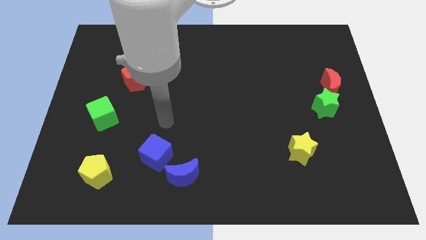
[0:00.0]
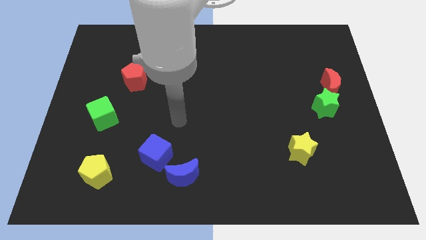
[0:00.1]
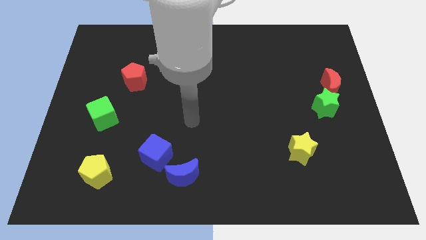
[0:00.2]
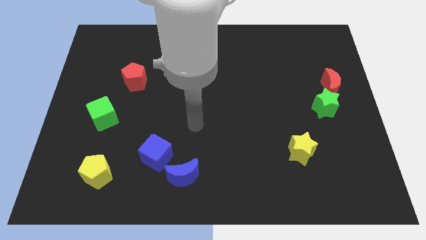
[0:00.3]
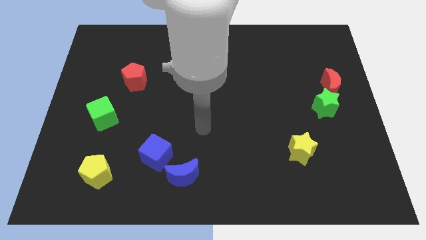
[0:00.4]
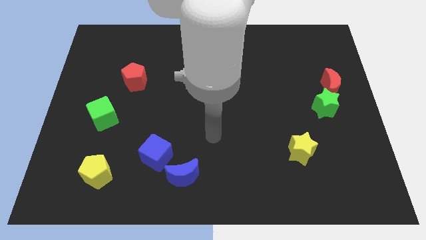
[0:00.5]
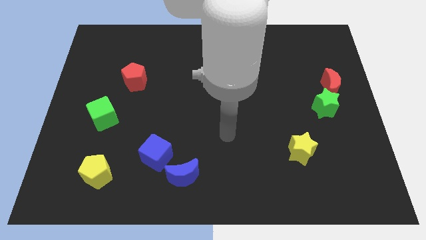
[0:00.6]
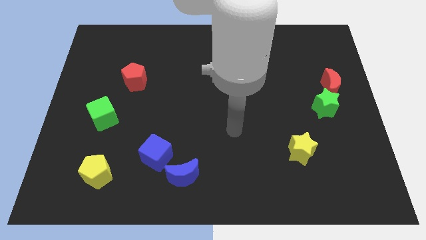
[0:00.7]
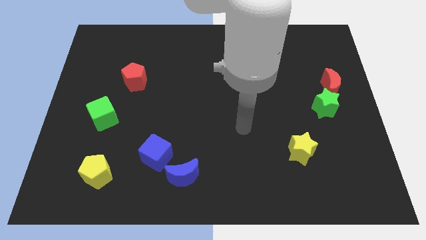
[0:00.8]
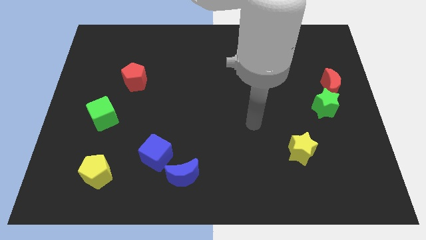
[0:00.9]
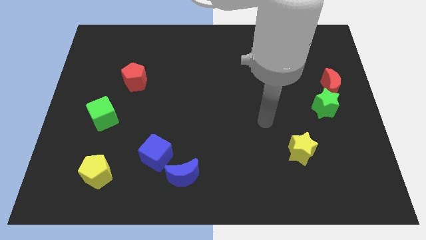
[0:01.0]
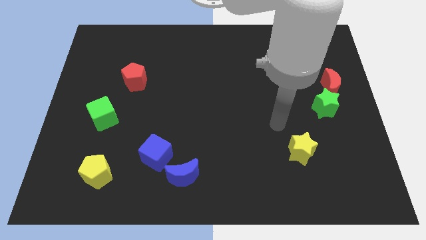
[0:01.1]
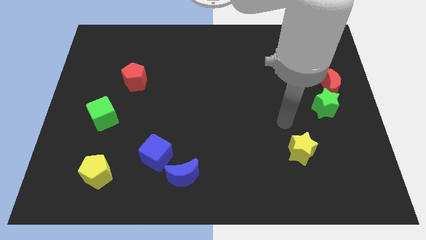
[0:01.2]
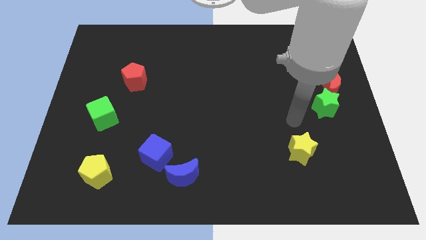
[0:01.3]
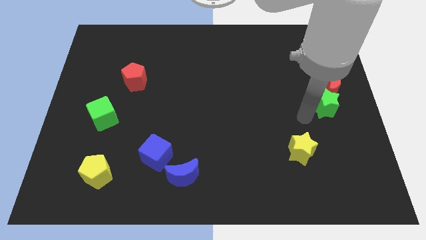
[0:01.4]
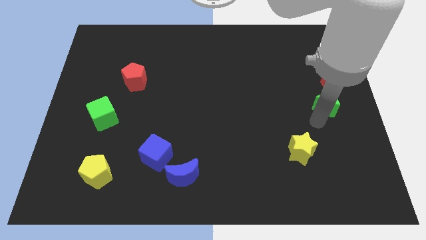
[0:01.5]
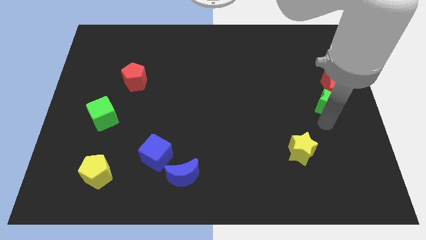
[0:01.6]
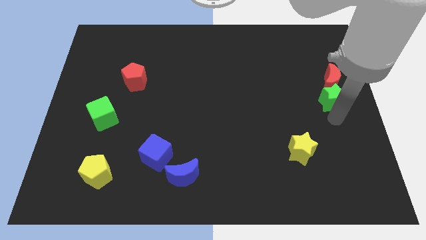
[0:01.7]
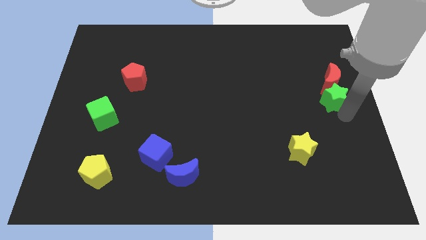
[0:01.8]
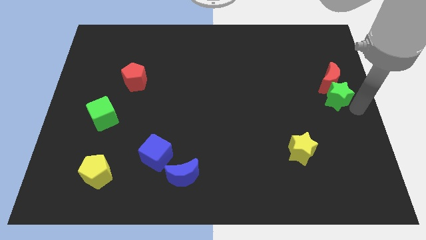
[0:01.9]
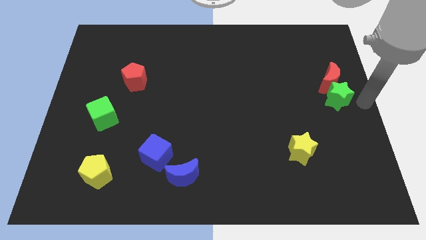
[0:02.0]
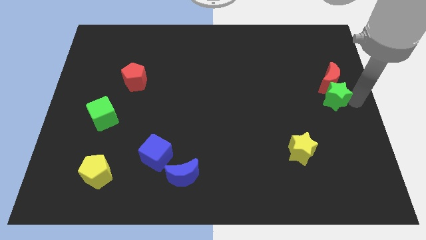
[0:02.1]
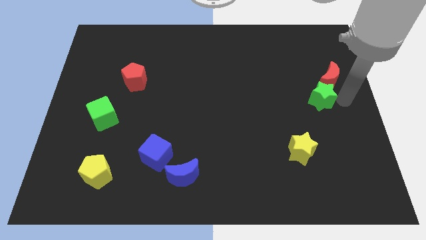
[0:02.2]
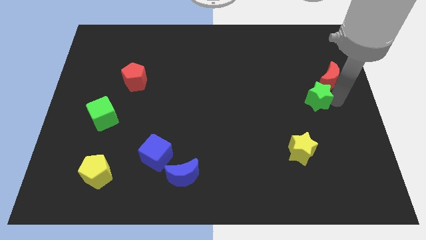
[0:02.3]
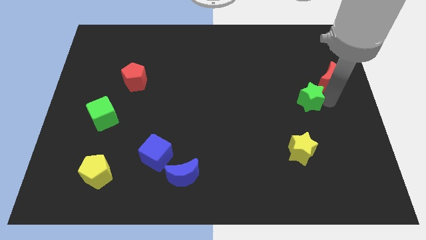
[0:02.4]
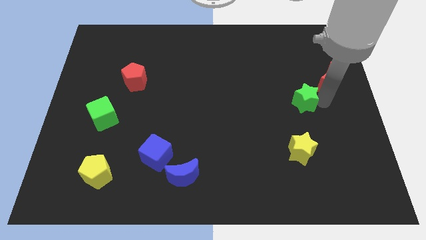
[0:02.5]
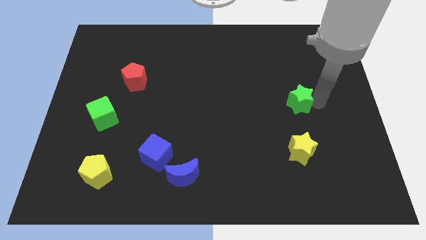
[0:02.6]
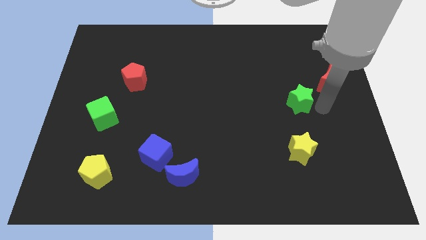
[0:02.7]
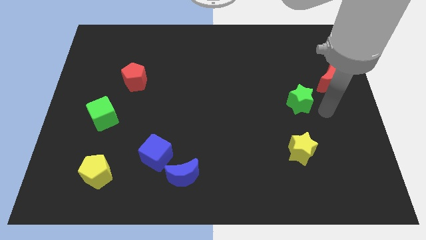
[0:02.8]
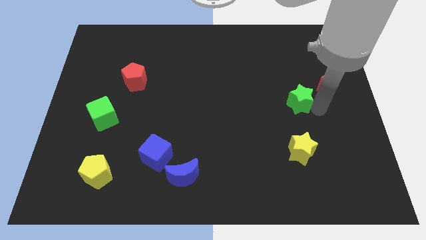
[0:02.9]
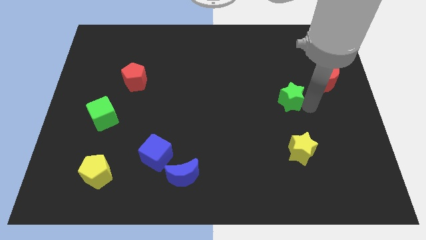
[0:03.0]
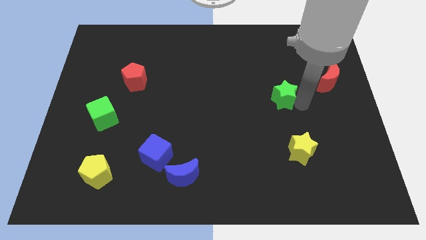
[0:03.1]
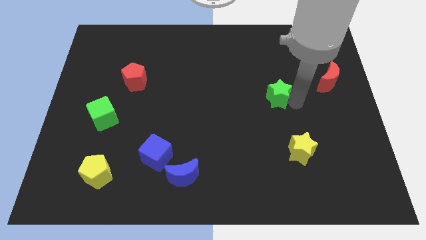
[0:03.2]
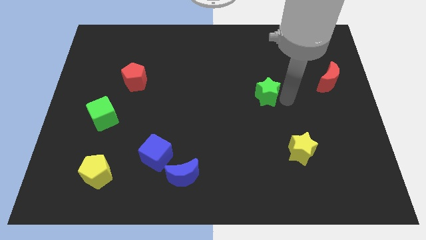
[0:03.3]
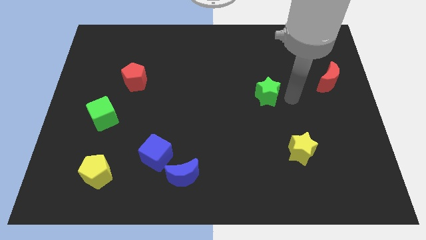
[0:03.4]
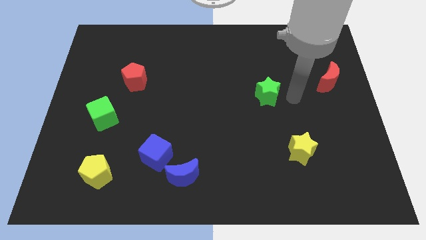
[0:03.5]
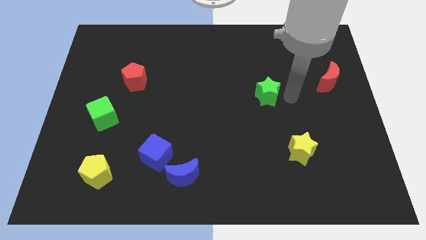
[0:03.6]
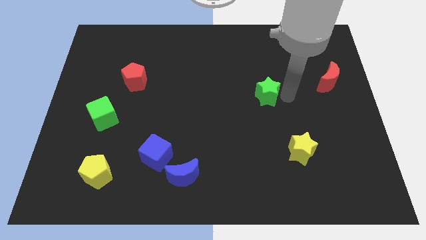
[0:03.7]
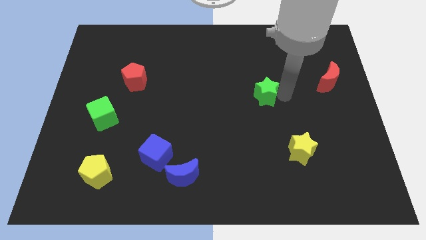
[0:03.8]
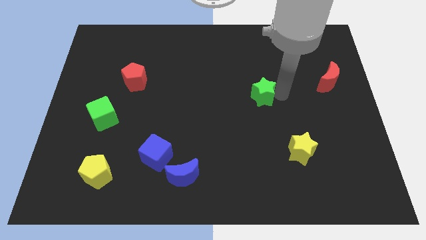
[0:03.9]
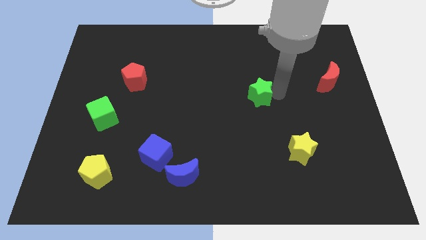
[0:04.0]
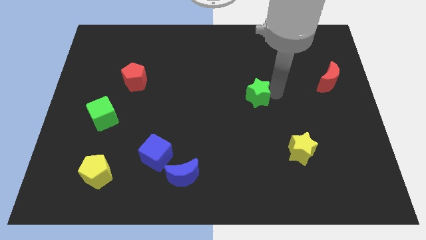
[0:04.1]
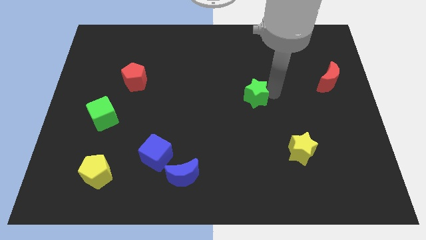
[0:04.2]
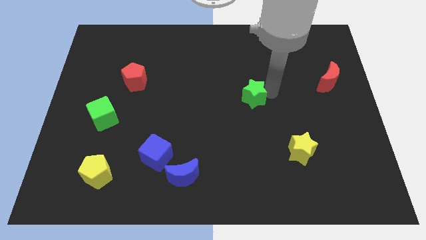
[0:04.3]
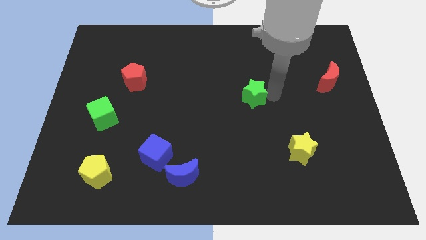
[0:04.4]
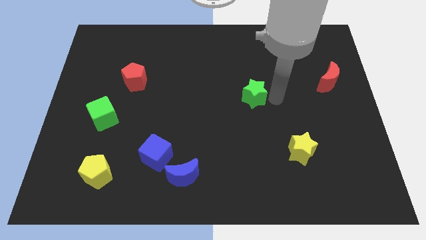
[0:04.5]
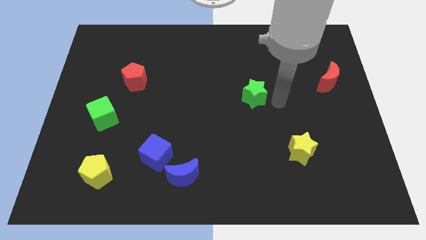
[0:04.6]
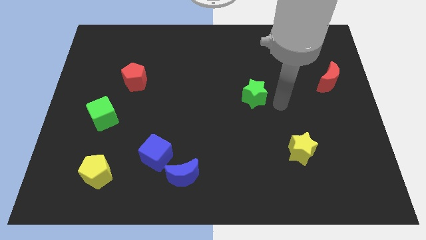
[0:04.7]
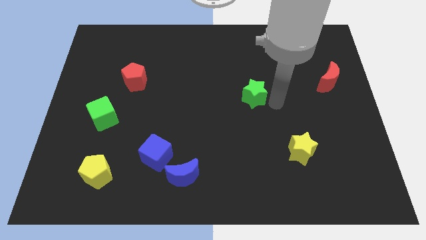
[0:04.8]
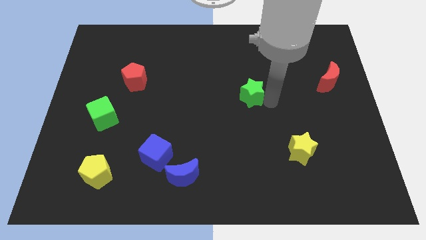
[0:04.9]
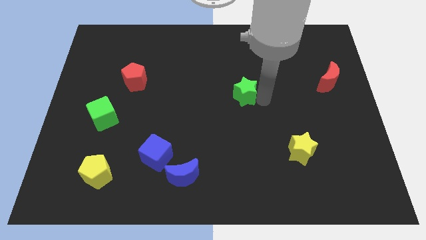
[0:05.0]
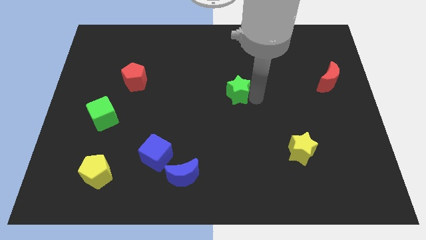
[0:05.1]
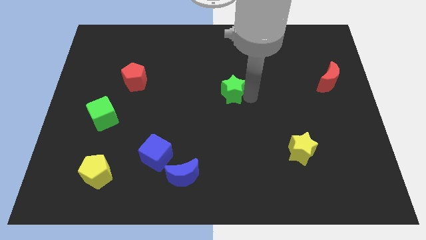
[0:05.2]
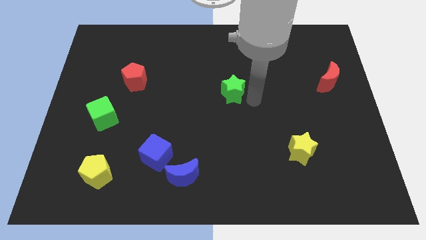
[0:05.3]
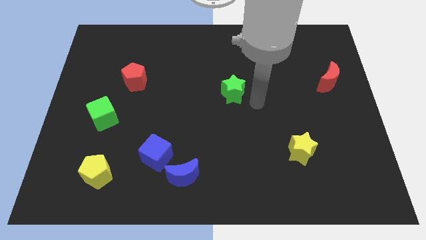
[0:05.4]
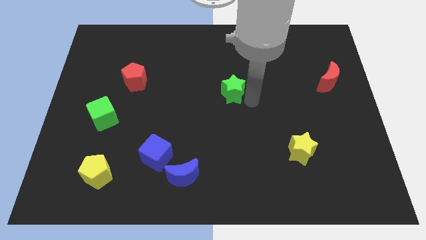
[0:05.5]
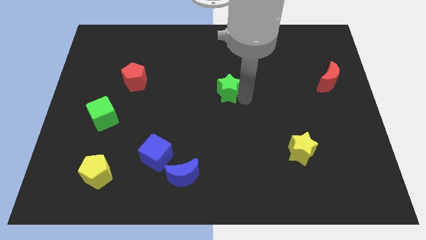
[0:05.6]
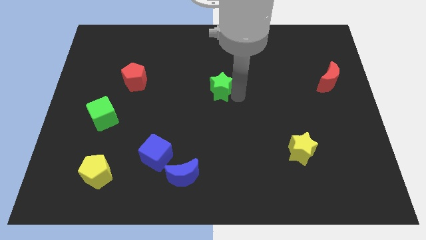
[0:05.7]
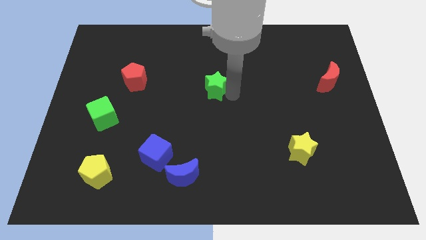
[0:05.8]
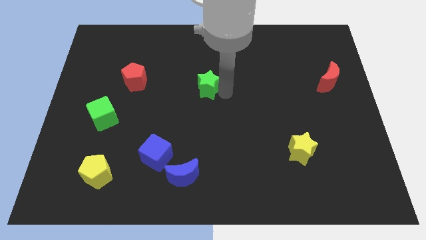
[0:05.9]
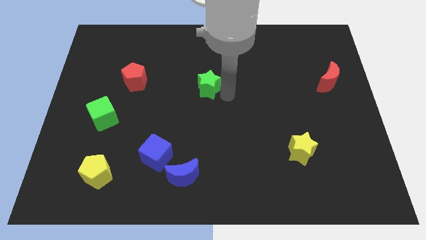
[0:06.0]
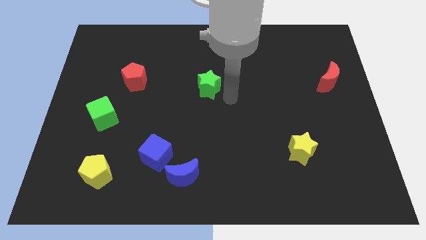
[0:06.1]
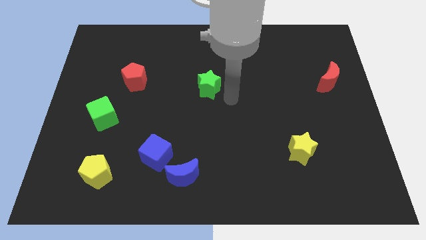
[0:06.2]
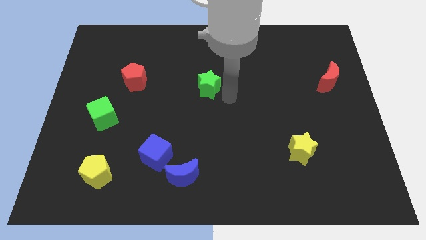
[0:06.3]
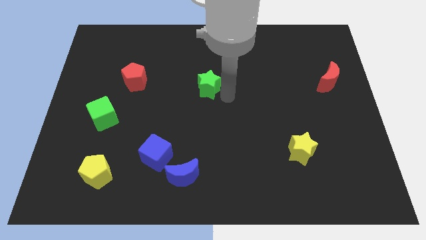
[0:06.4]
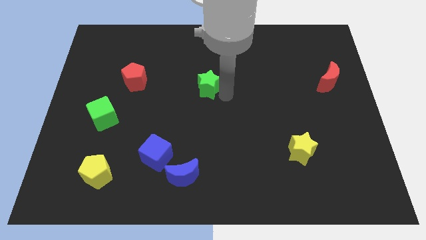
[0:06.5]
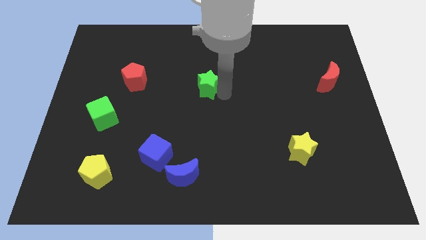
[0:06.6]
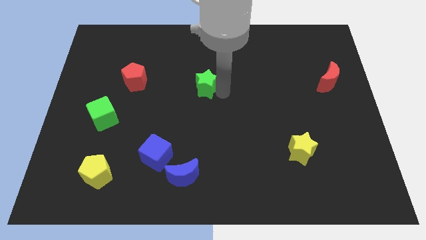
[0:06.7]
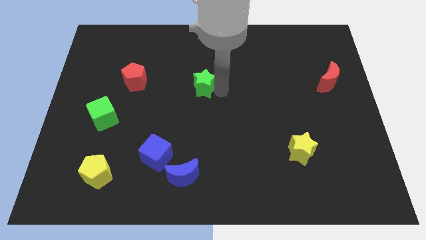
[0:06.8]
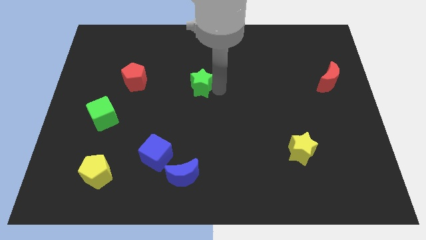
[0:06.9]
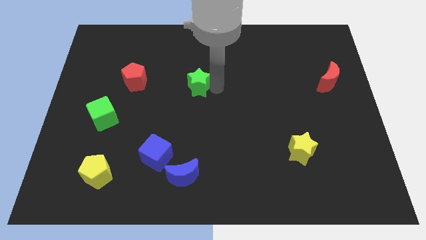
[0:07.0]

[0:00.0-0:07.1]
slide the green star right of the red pentagon
